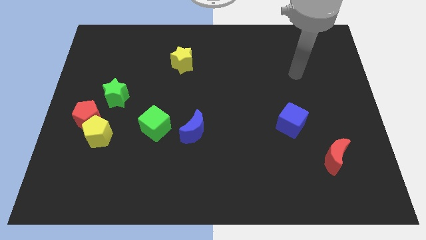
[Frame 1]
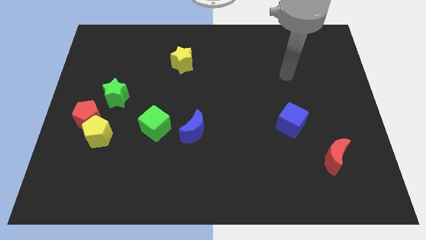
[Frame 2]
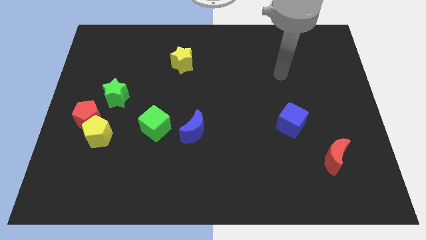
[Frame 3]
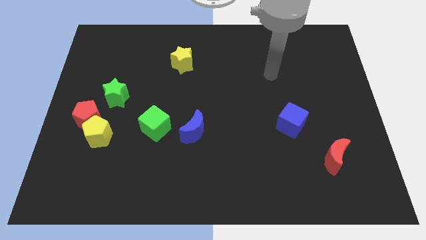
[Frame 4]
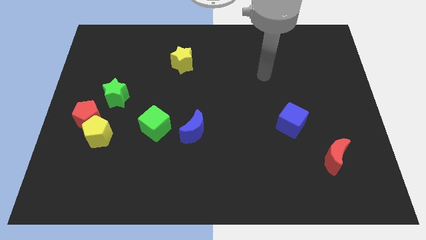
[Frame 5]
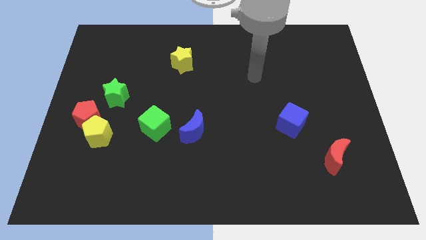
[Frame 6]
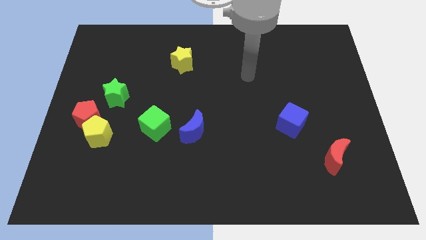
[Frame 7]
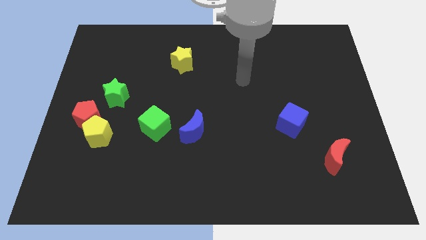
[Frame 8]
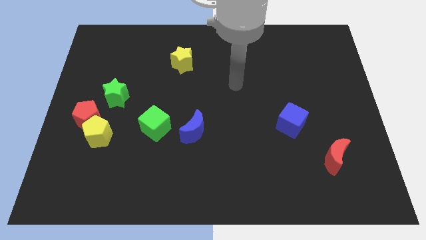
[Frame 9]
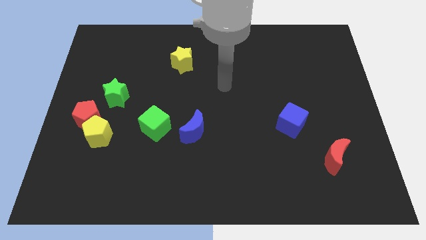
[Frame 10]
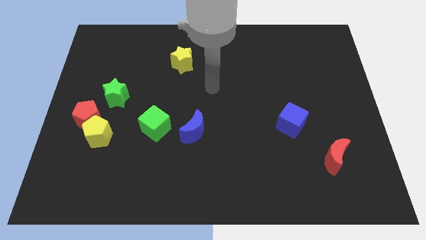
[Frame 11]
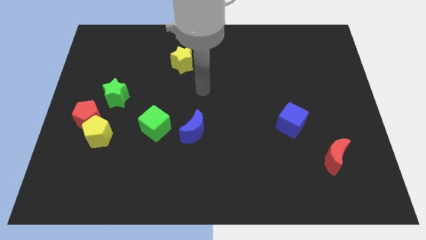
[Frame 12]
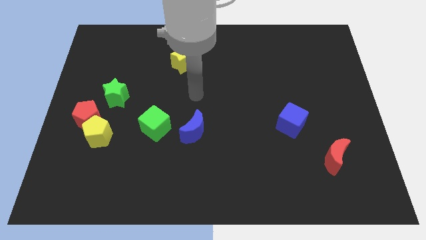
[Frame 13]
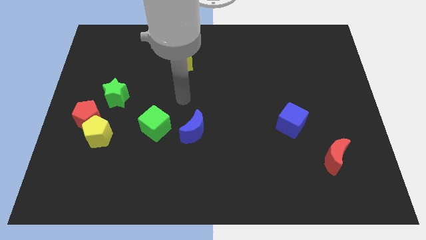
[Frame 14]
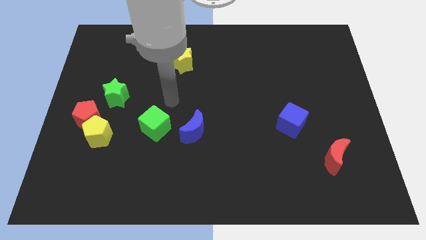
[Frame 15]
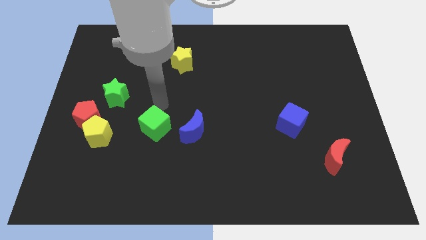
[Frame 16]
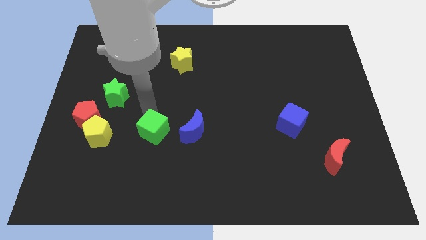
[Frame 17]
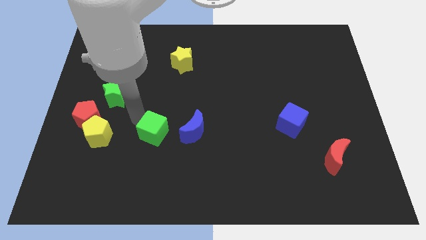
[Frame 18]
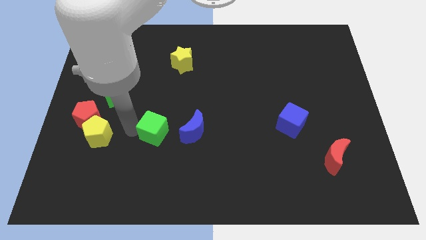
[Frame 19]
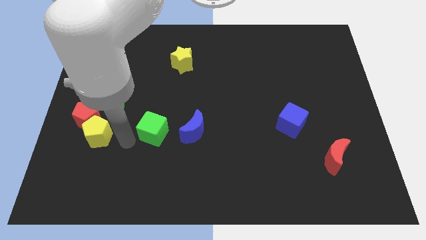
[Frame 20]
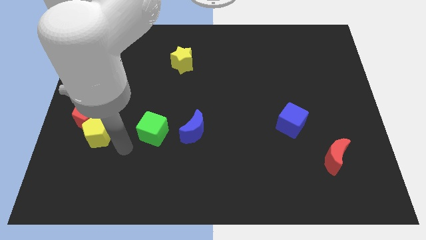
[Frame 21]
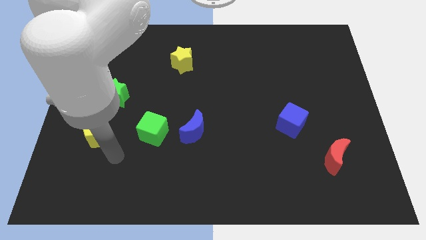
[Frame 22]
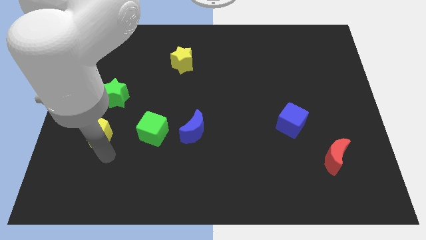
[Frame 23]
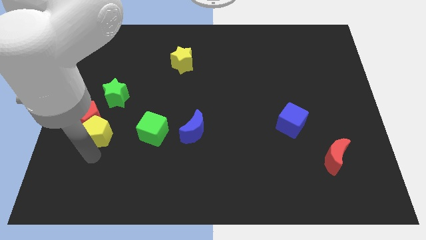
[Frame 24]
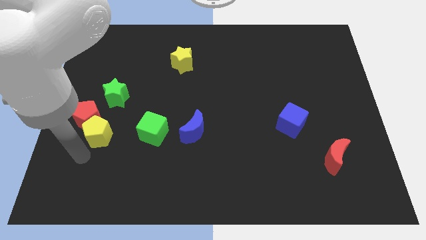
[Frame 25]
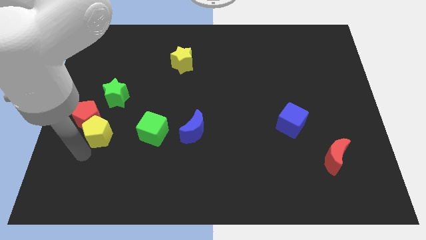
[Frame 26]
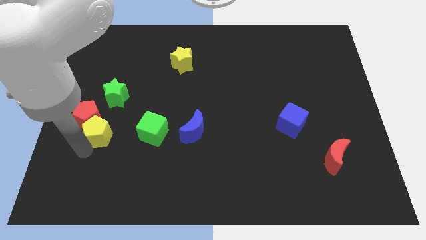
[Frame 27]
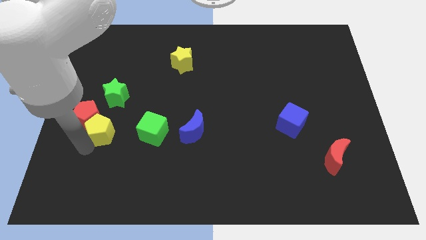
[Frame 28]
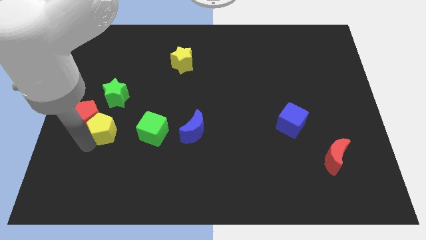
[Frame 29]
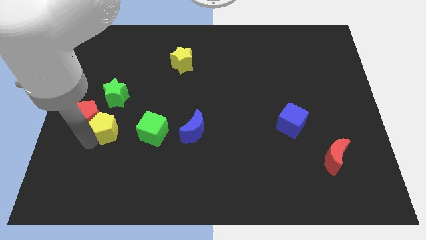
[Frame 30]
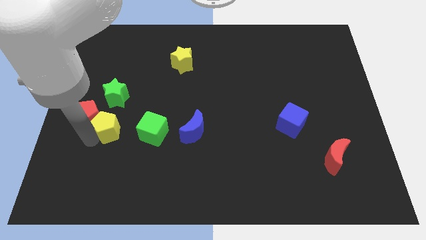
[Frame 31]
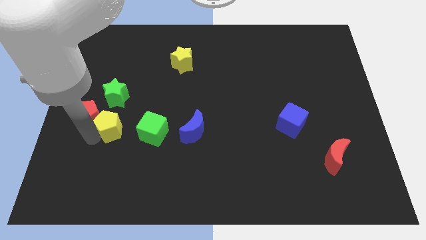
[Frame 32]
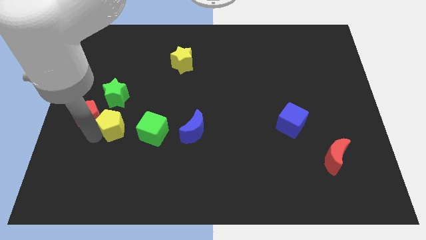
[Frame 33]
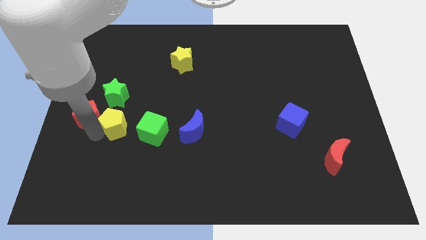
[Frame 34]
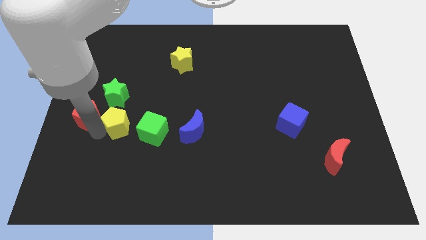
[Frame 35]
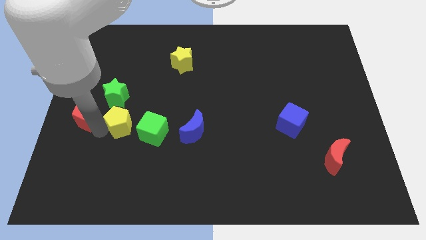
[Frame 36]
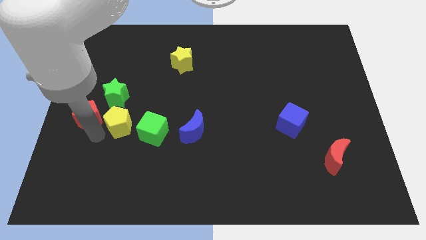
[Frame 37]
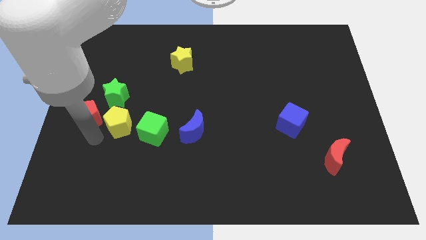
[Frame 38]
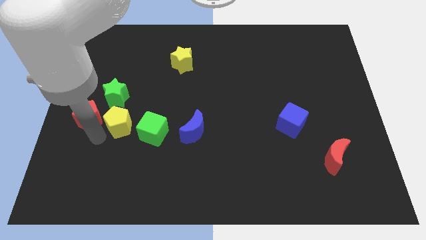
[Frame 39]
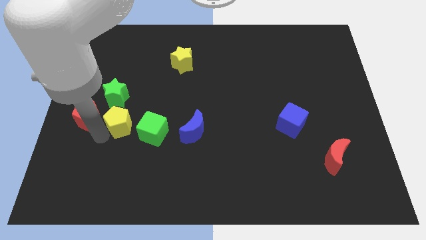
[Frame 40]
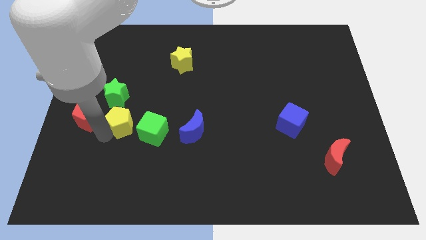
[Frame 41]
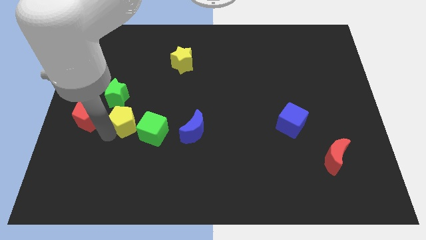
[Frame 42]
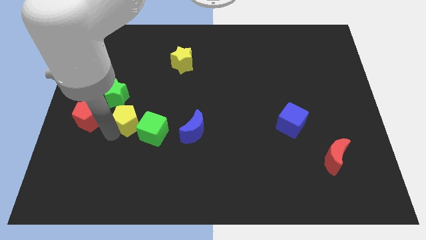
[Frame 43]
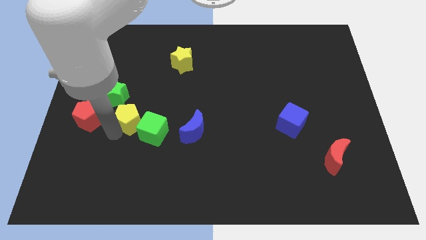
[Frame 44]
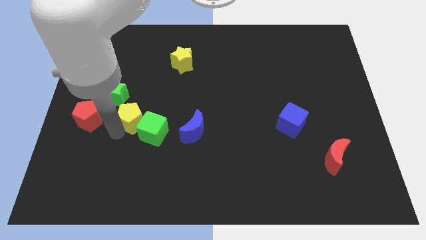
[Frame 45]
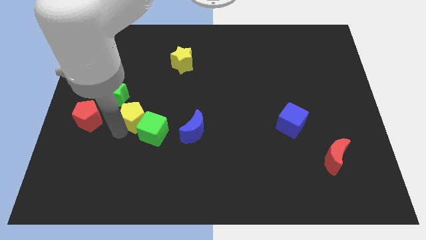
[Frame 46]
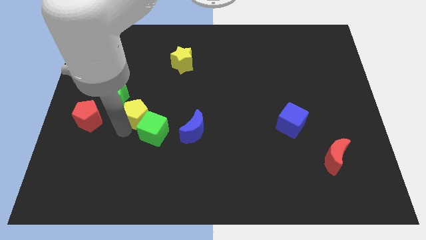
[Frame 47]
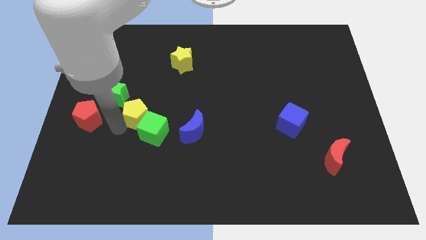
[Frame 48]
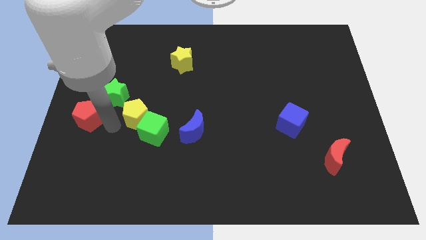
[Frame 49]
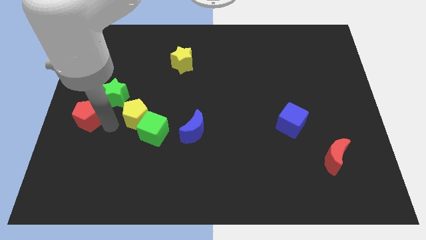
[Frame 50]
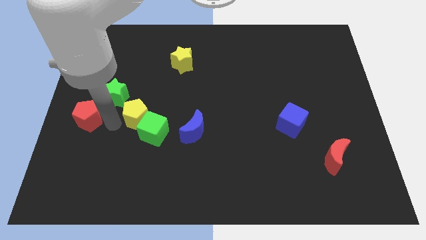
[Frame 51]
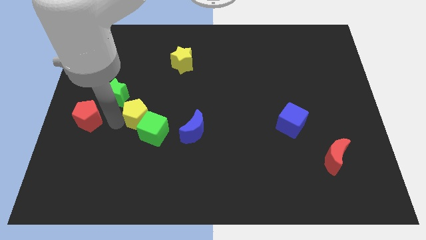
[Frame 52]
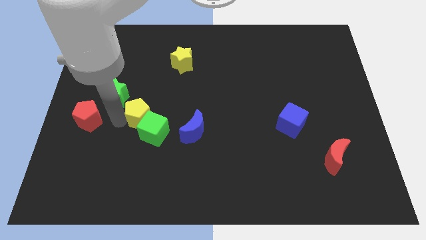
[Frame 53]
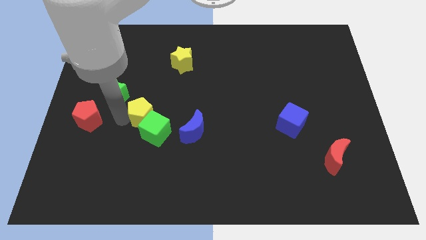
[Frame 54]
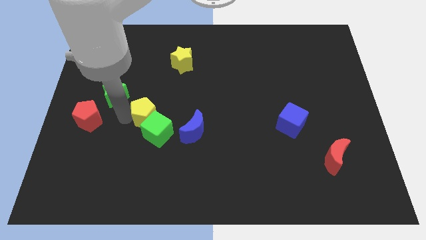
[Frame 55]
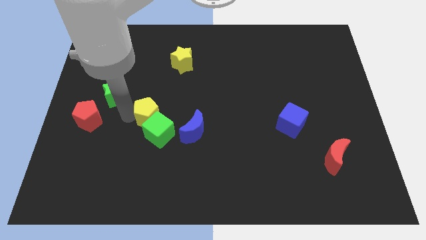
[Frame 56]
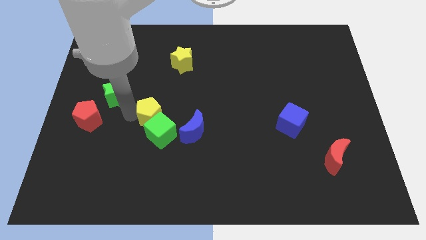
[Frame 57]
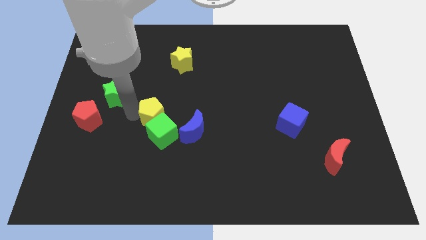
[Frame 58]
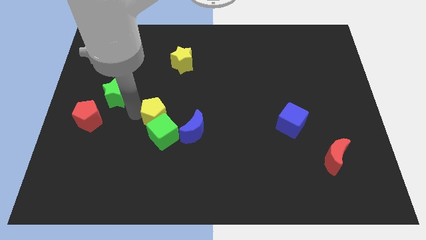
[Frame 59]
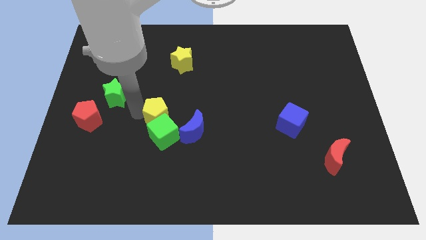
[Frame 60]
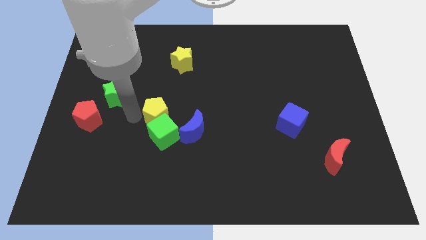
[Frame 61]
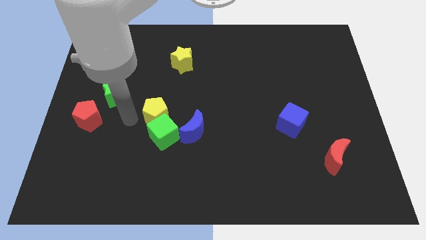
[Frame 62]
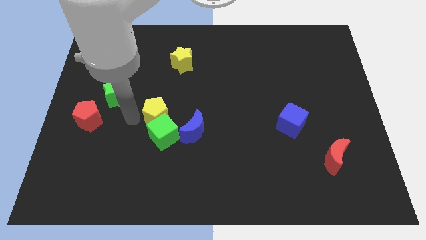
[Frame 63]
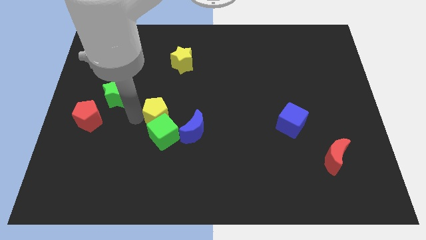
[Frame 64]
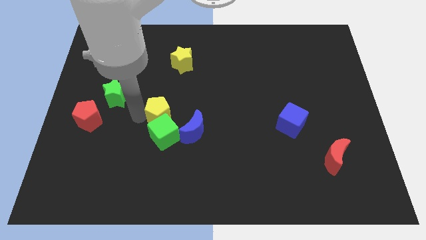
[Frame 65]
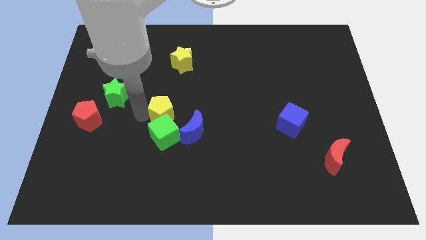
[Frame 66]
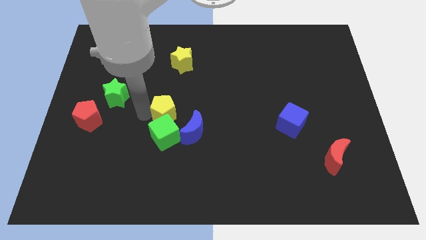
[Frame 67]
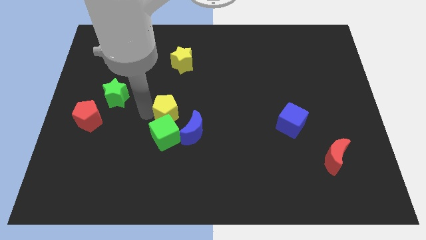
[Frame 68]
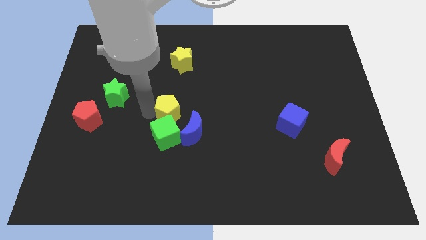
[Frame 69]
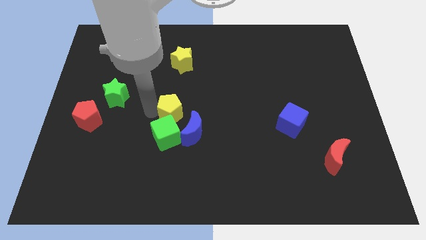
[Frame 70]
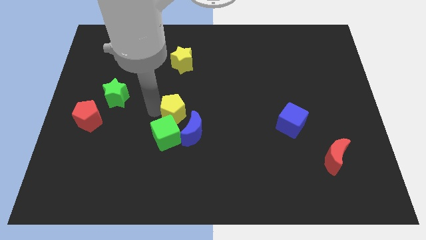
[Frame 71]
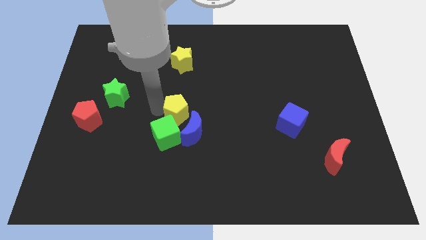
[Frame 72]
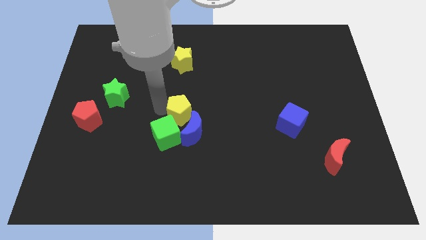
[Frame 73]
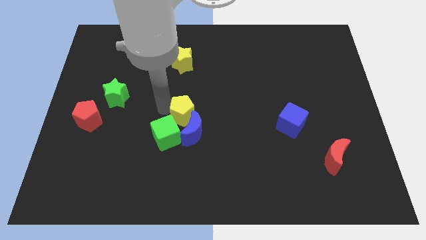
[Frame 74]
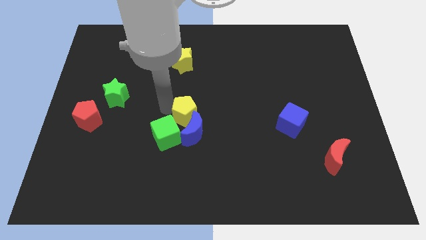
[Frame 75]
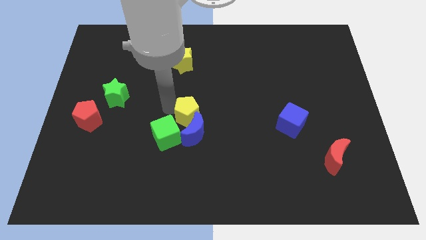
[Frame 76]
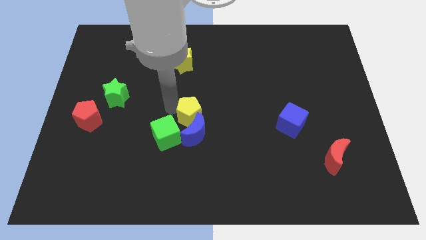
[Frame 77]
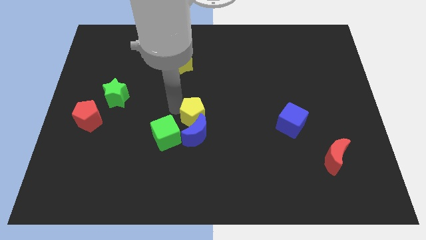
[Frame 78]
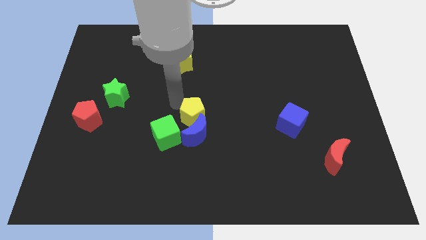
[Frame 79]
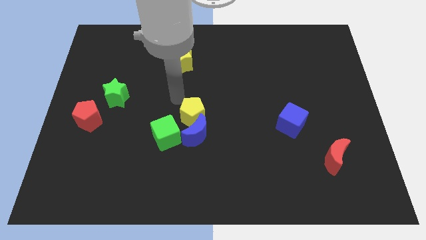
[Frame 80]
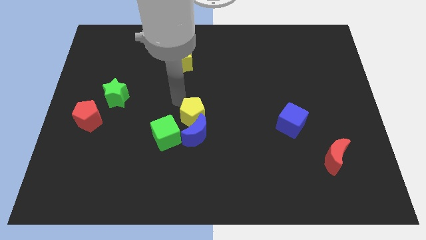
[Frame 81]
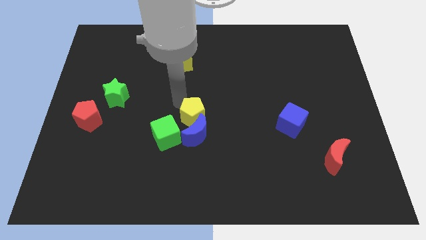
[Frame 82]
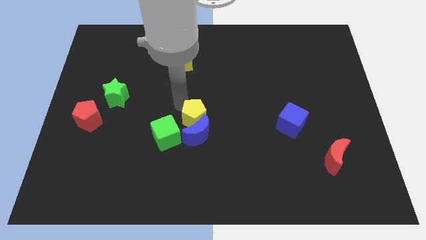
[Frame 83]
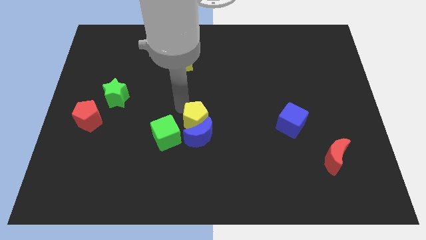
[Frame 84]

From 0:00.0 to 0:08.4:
push the yellow pentagon right of the green cube
